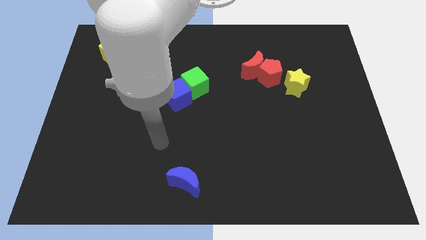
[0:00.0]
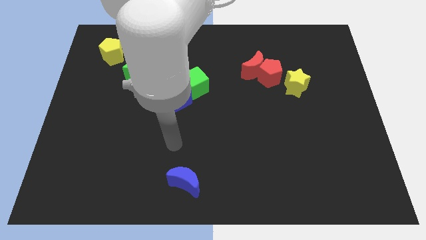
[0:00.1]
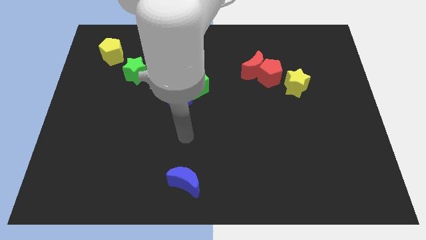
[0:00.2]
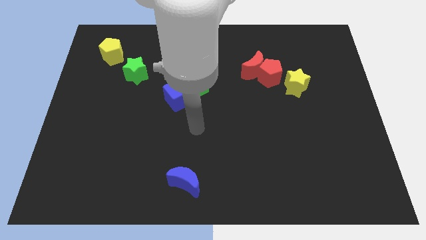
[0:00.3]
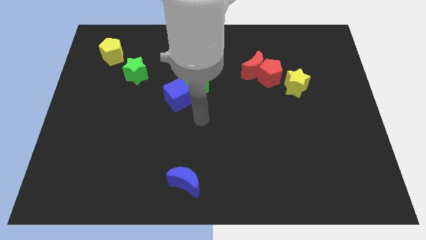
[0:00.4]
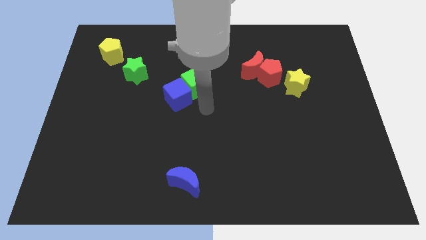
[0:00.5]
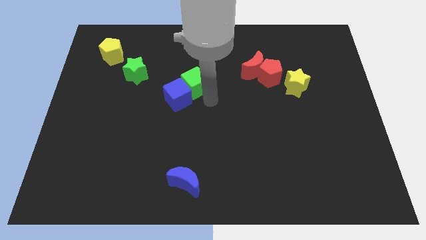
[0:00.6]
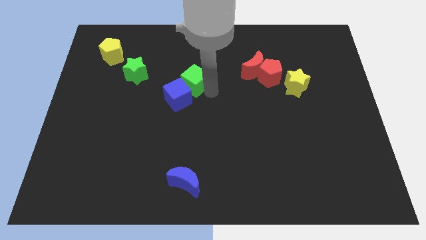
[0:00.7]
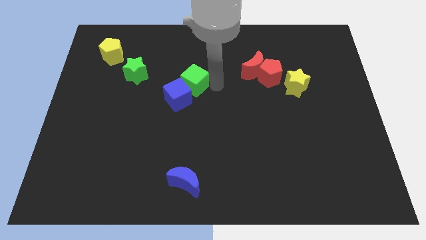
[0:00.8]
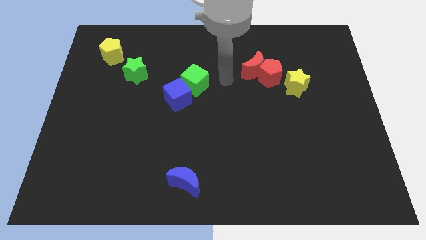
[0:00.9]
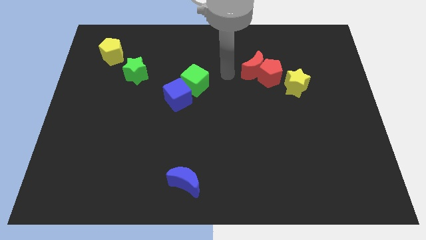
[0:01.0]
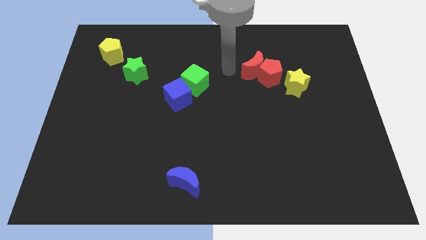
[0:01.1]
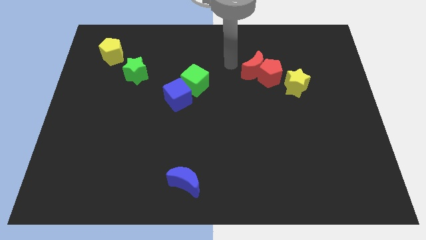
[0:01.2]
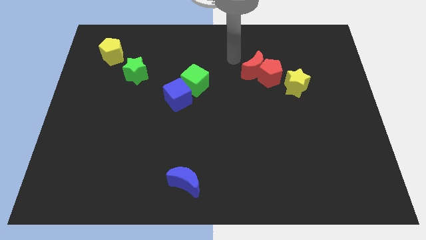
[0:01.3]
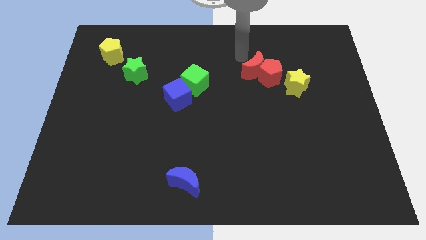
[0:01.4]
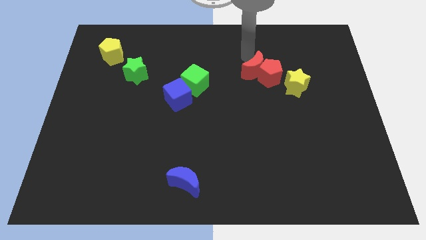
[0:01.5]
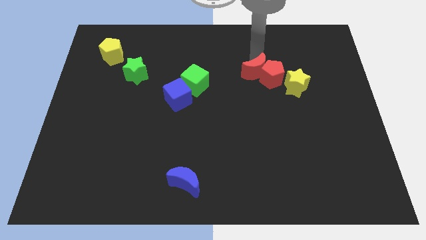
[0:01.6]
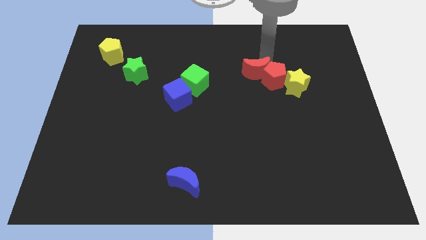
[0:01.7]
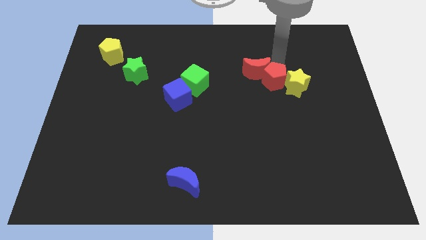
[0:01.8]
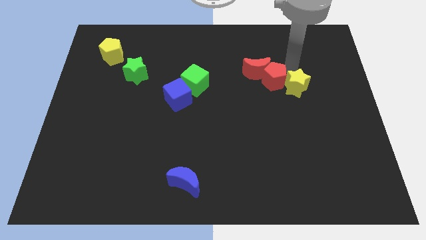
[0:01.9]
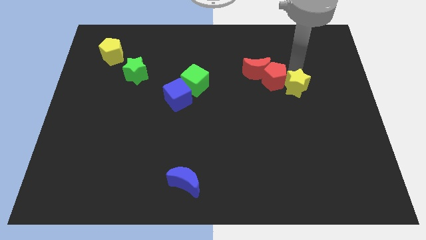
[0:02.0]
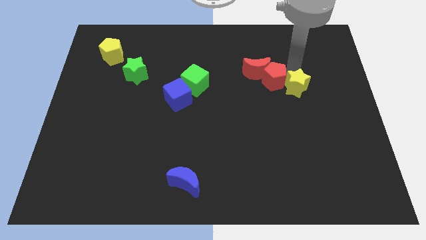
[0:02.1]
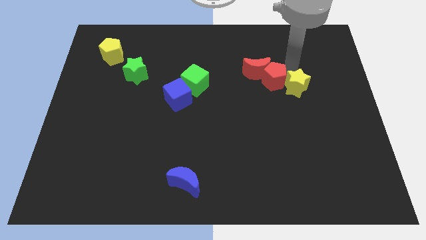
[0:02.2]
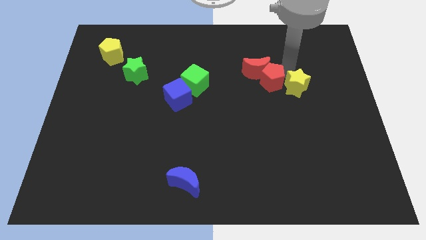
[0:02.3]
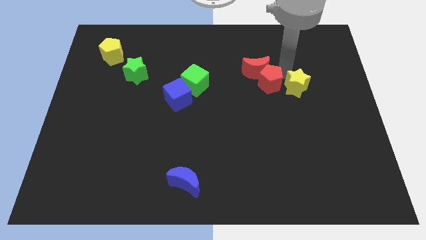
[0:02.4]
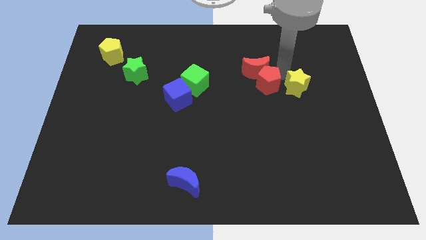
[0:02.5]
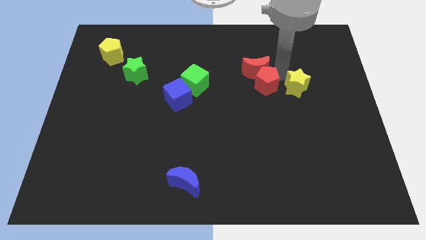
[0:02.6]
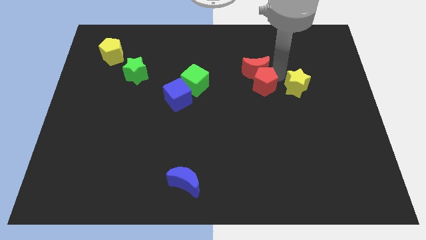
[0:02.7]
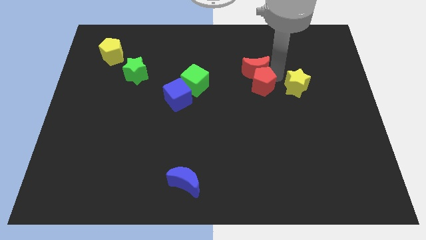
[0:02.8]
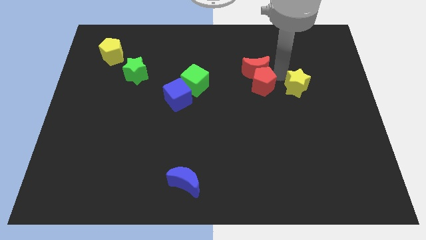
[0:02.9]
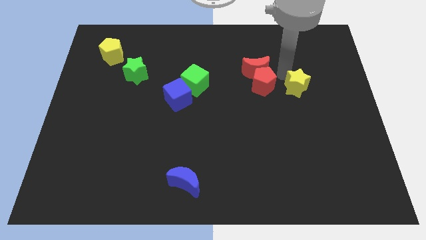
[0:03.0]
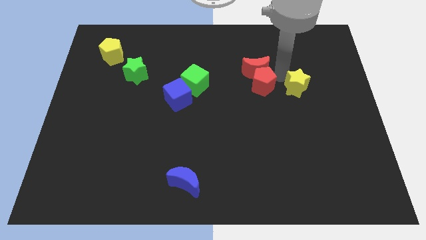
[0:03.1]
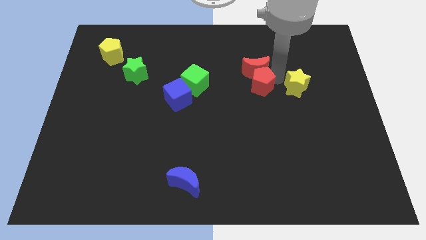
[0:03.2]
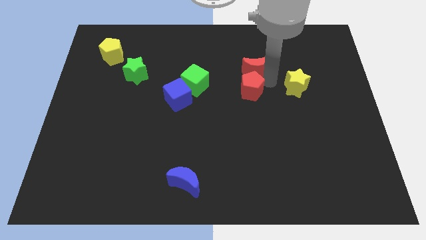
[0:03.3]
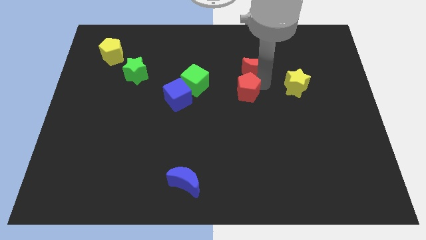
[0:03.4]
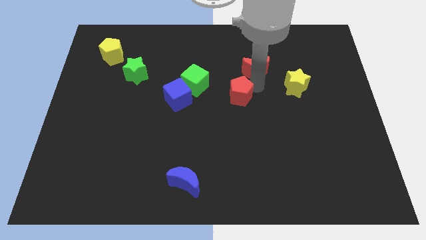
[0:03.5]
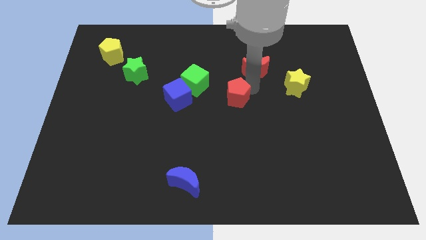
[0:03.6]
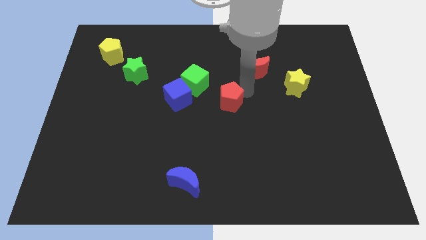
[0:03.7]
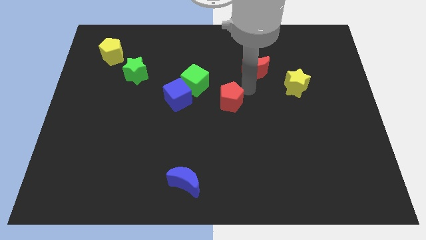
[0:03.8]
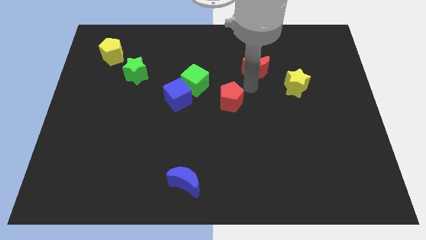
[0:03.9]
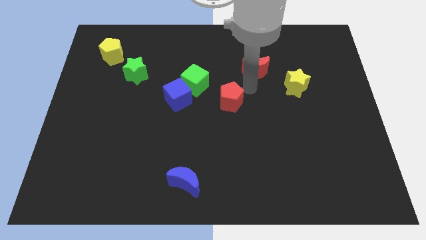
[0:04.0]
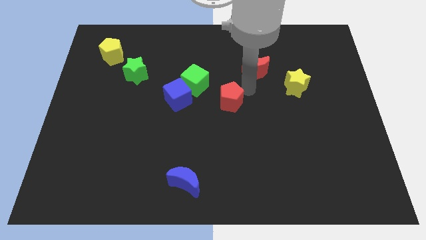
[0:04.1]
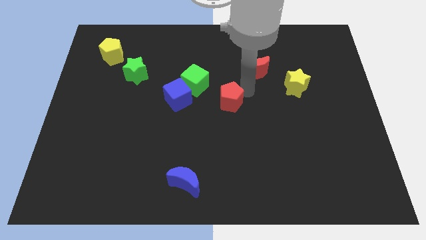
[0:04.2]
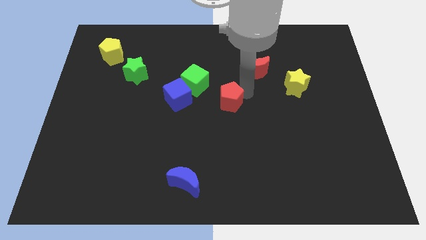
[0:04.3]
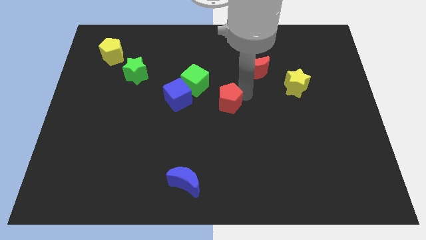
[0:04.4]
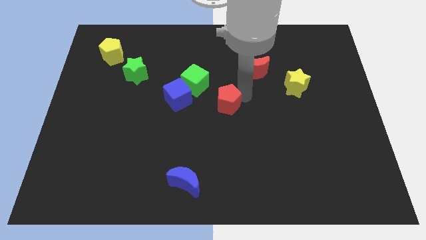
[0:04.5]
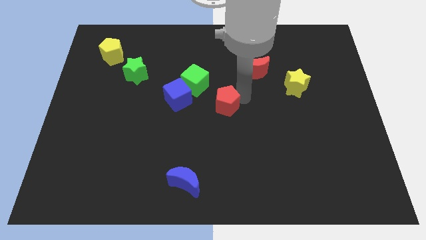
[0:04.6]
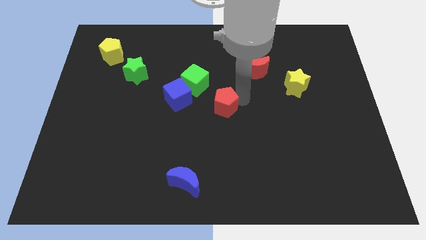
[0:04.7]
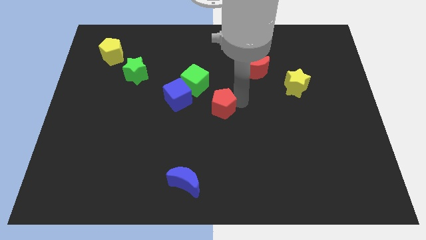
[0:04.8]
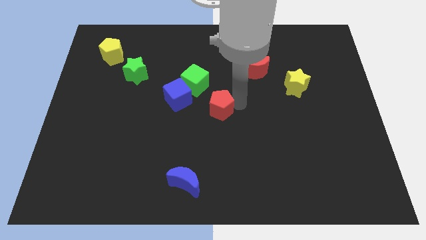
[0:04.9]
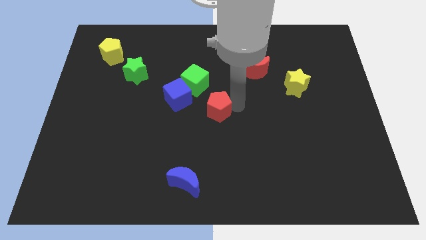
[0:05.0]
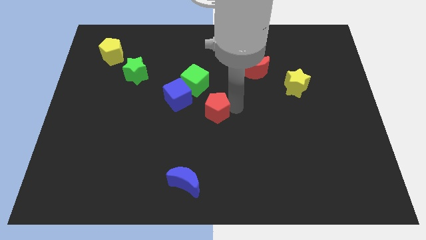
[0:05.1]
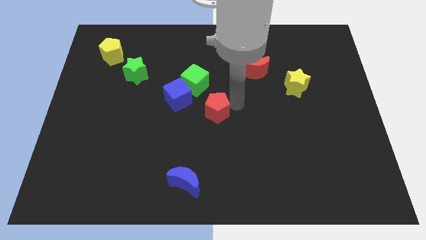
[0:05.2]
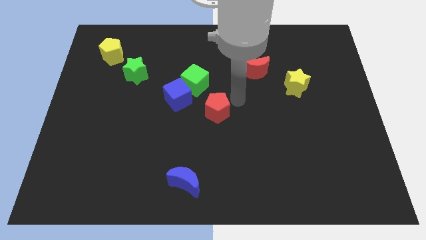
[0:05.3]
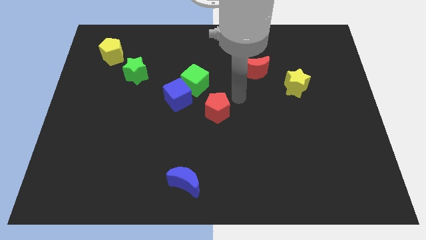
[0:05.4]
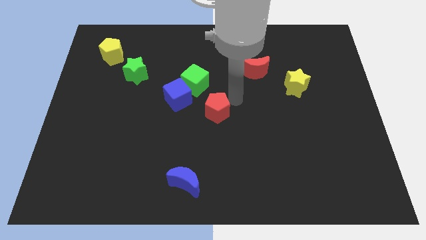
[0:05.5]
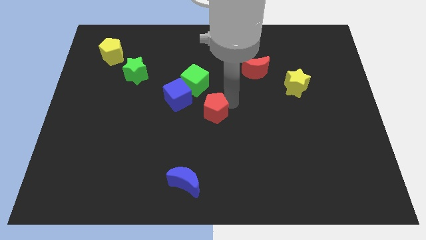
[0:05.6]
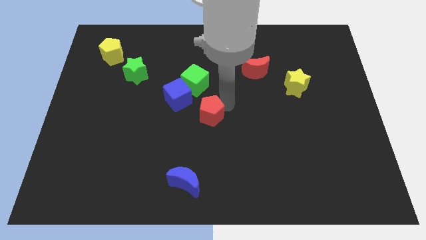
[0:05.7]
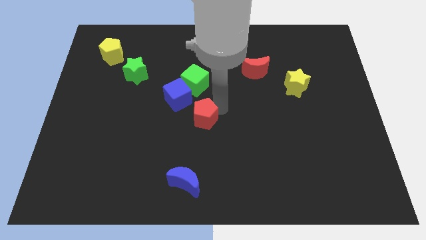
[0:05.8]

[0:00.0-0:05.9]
slide the red pentagon diagonally down and to the left

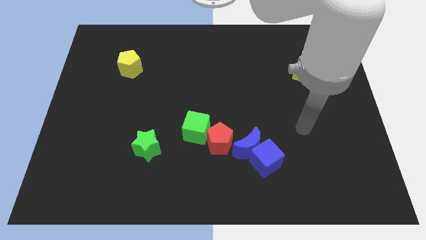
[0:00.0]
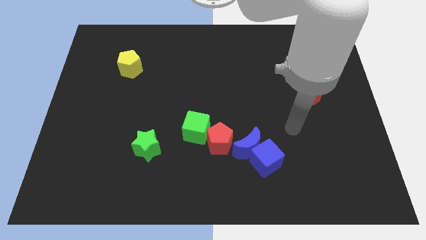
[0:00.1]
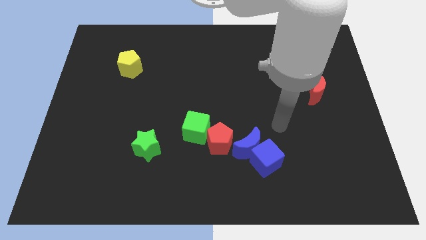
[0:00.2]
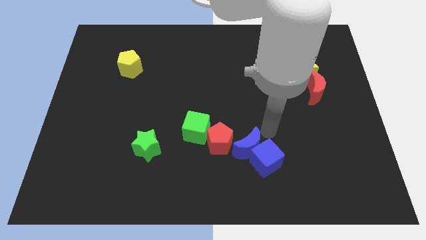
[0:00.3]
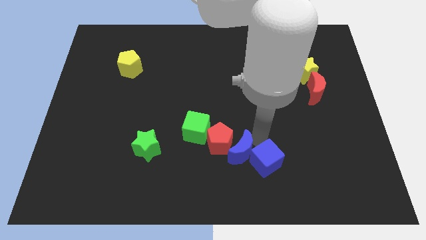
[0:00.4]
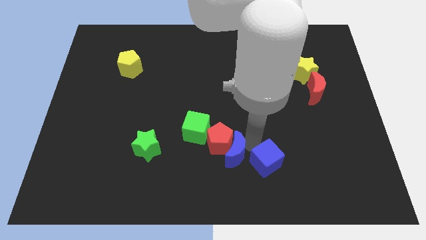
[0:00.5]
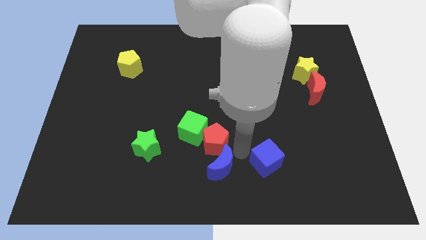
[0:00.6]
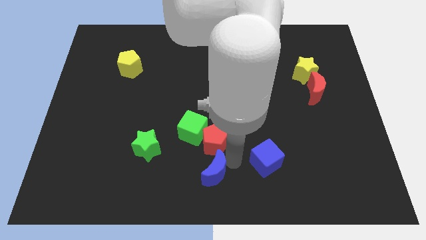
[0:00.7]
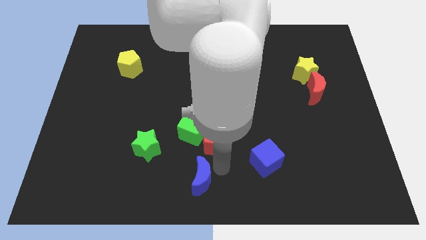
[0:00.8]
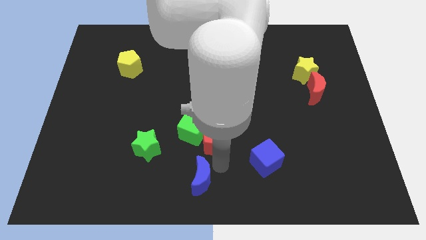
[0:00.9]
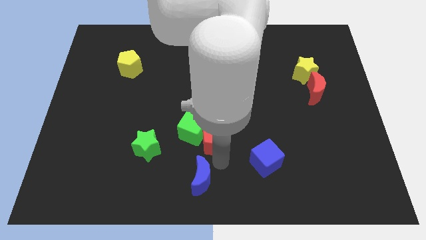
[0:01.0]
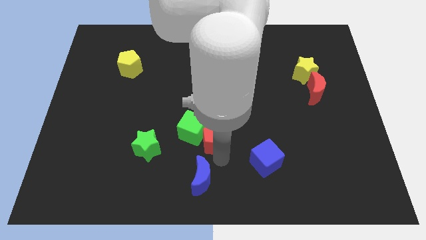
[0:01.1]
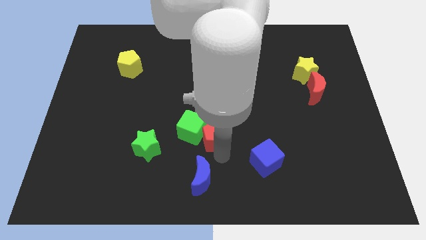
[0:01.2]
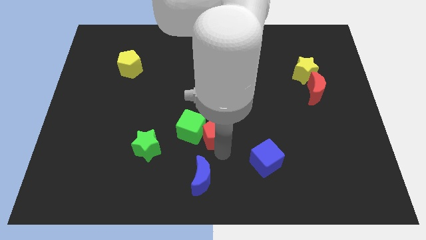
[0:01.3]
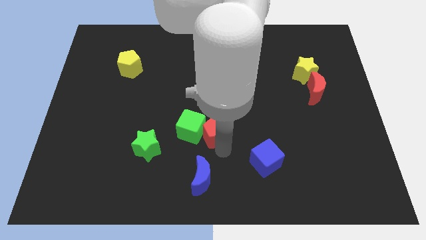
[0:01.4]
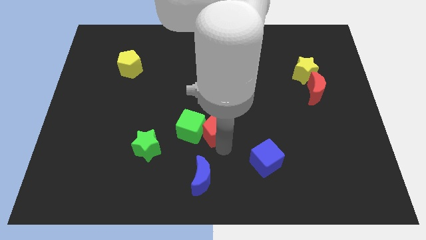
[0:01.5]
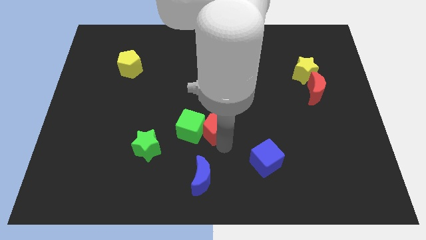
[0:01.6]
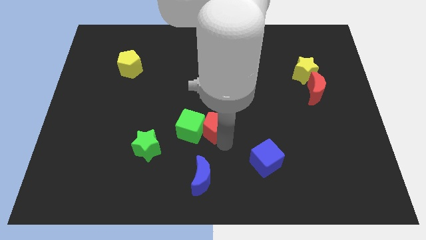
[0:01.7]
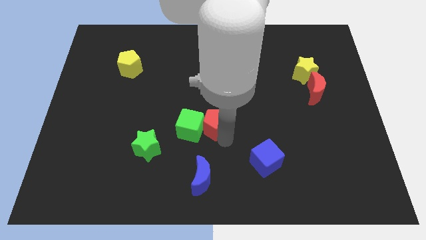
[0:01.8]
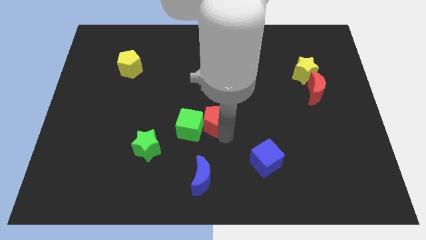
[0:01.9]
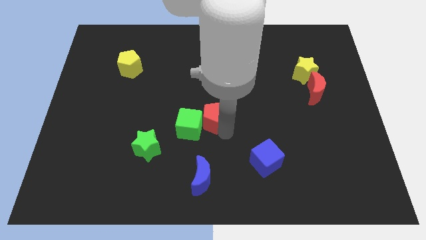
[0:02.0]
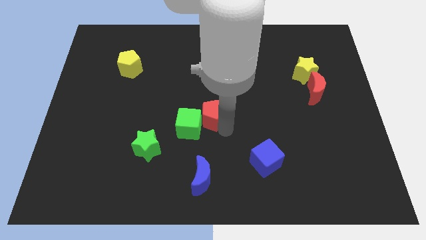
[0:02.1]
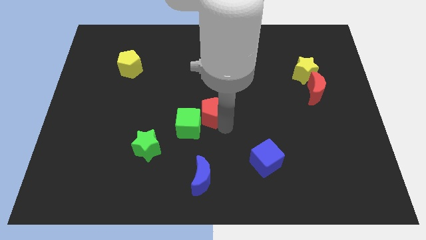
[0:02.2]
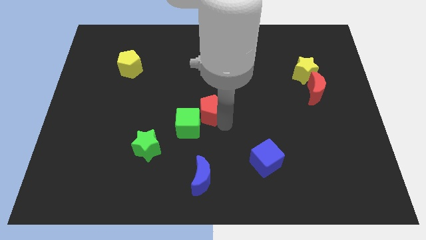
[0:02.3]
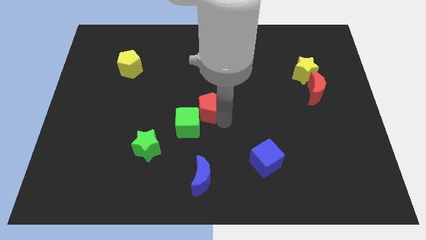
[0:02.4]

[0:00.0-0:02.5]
slightly move the red pentagon diagonally upwards and to the left

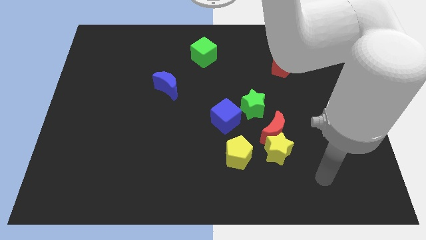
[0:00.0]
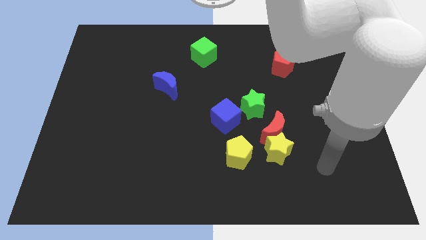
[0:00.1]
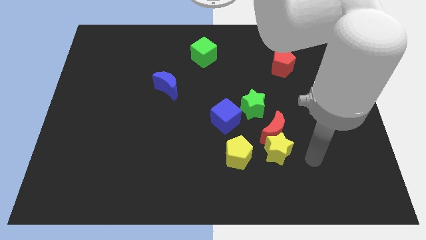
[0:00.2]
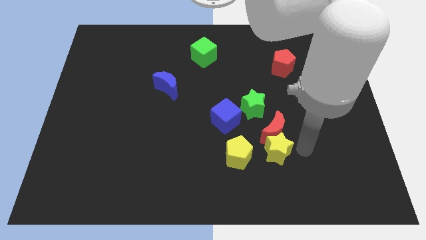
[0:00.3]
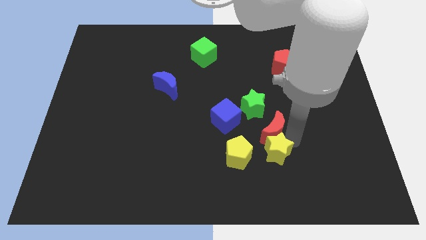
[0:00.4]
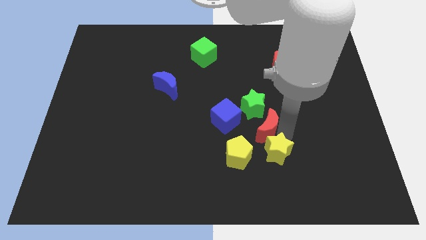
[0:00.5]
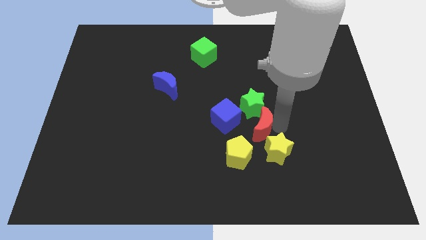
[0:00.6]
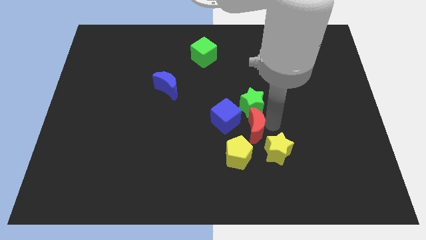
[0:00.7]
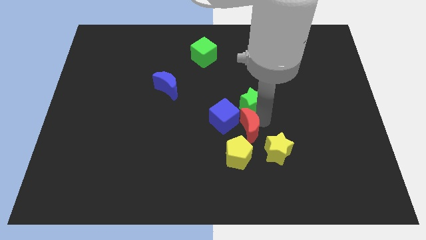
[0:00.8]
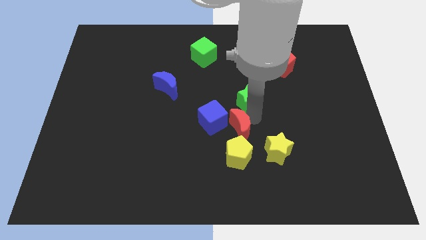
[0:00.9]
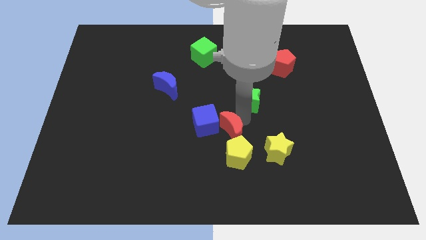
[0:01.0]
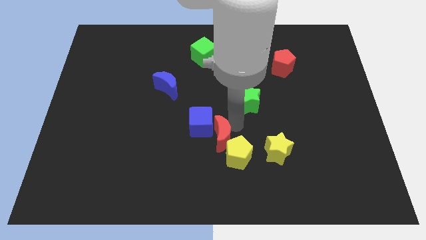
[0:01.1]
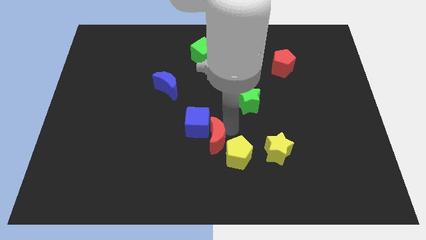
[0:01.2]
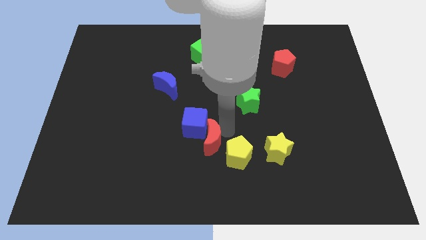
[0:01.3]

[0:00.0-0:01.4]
slightly push the blue cube to the left
